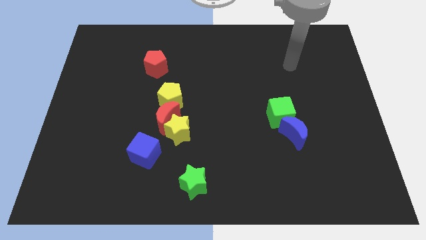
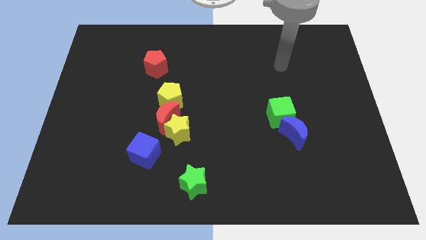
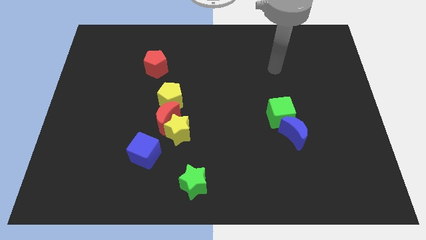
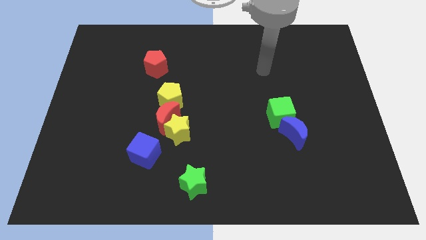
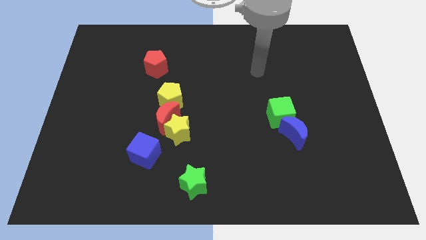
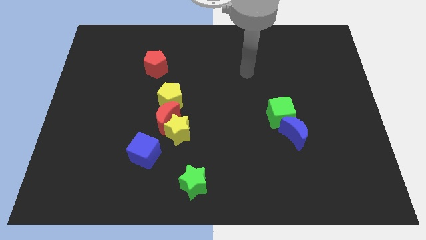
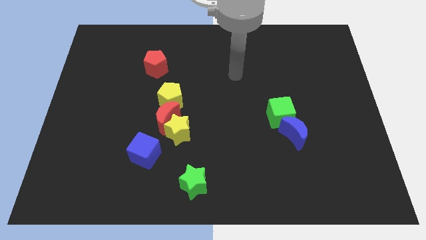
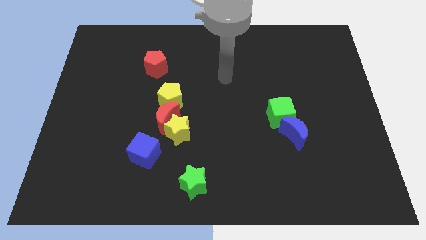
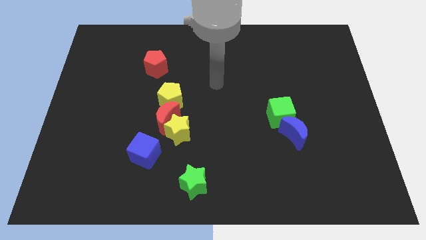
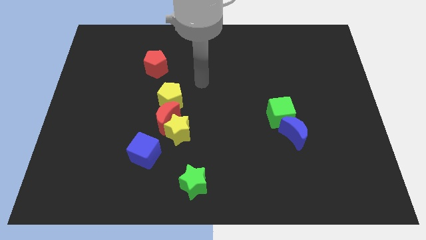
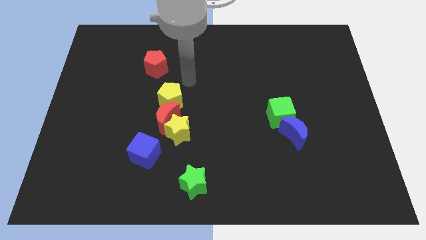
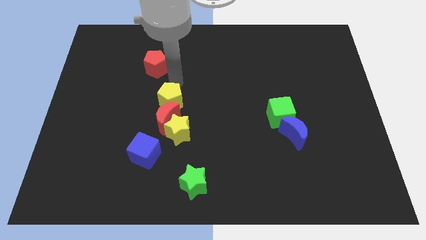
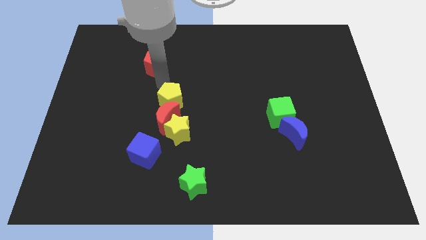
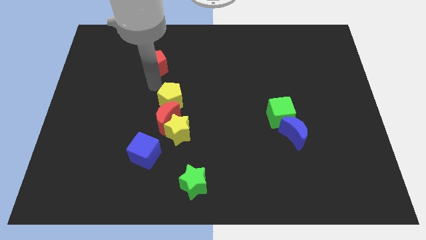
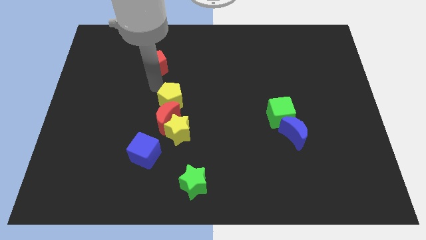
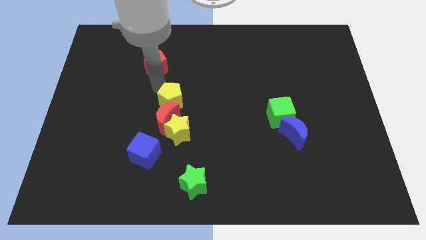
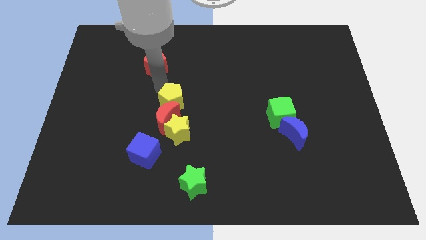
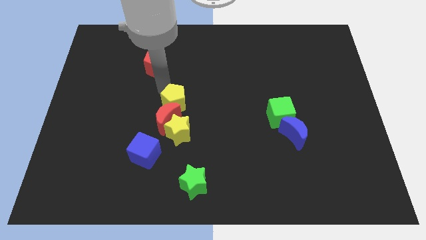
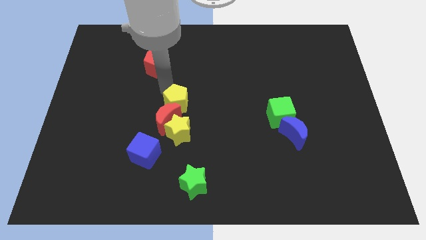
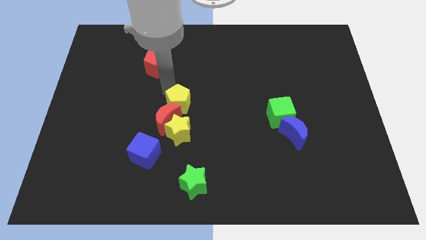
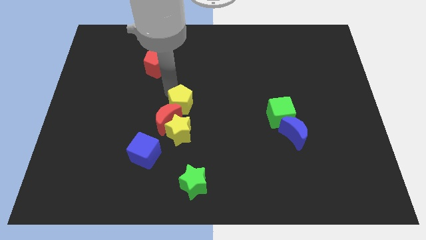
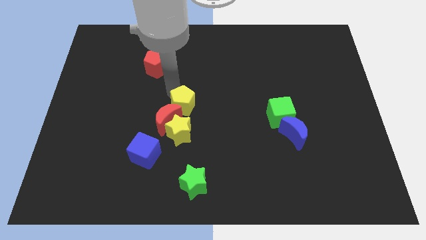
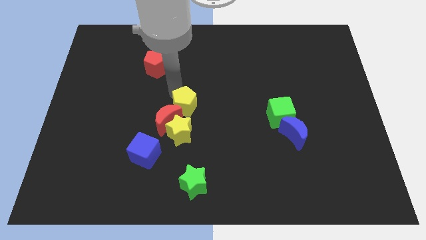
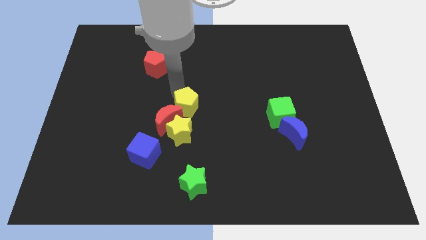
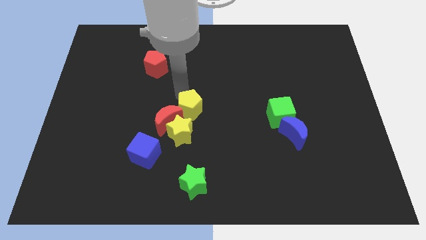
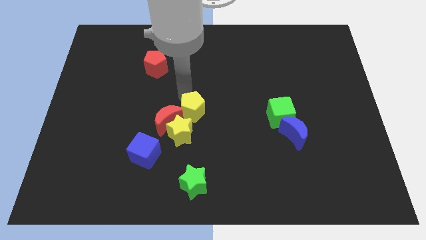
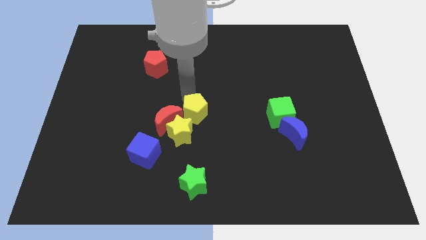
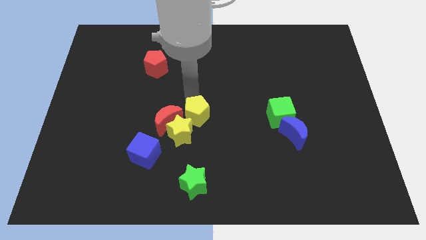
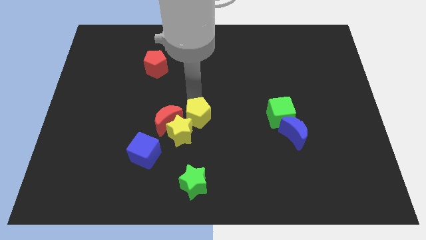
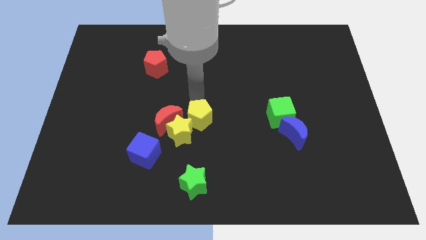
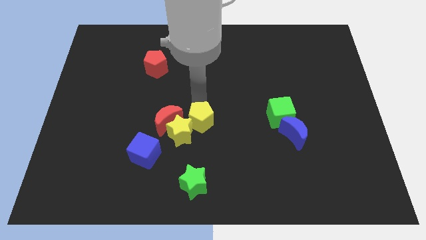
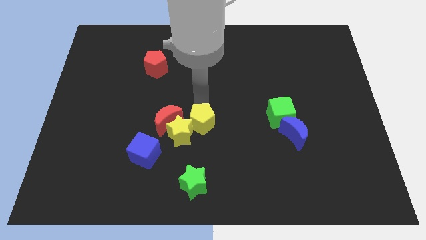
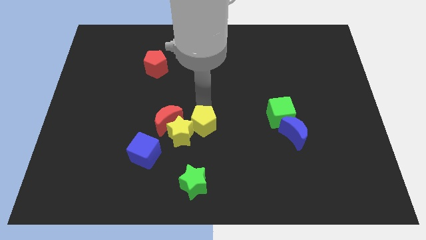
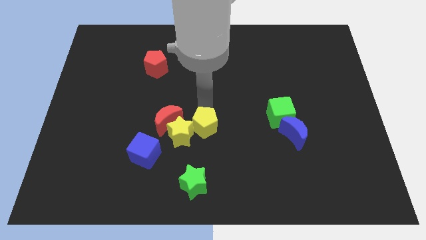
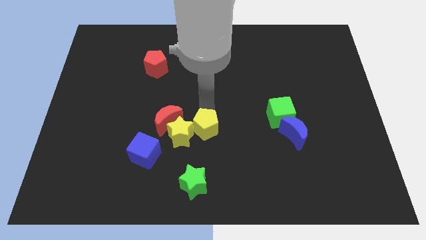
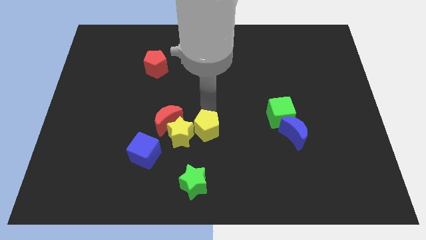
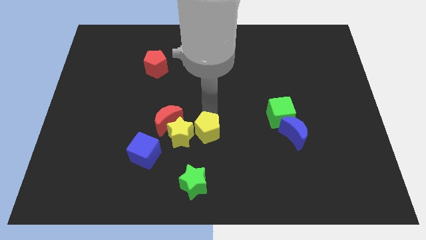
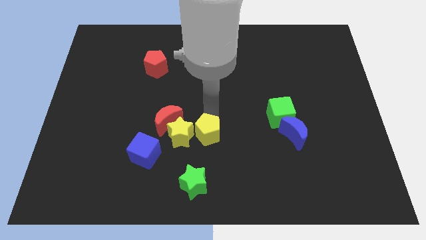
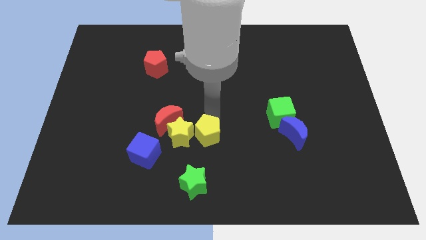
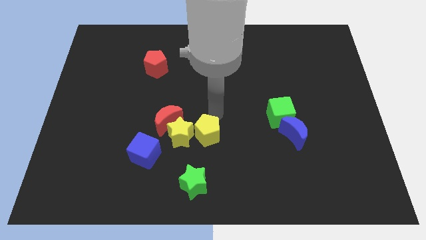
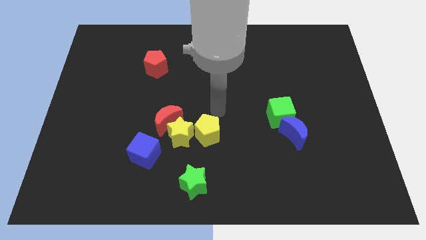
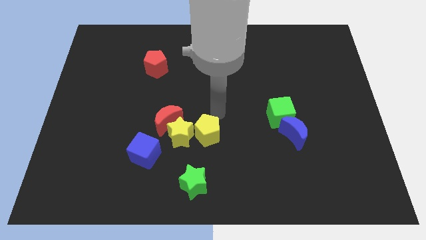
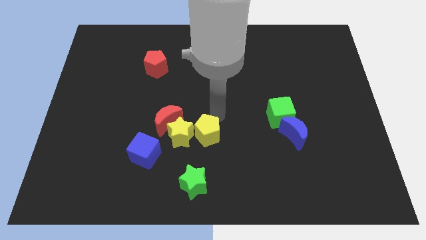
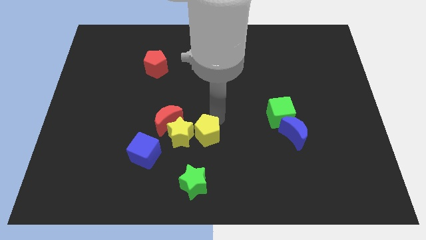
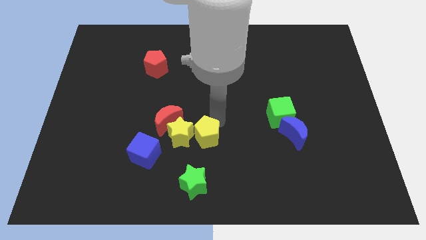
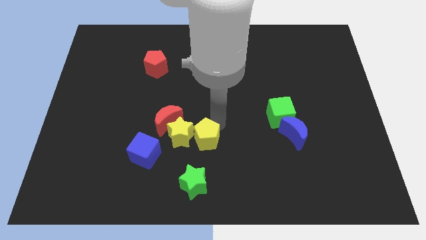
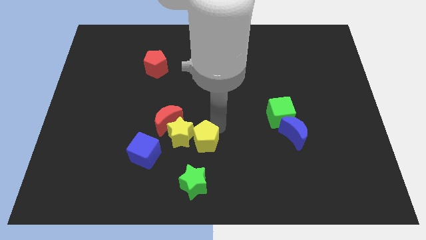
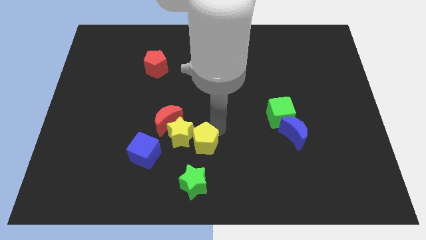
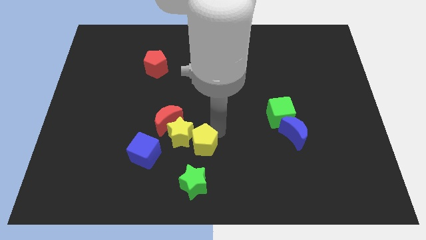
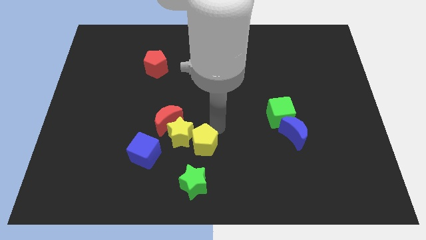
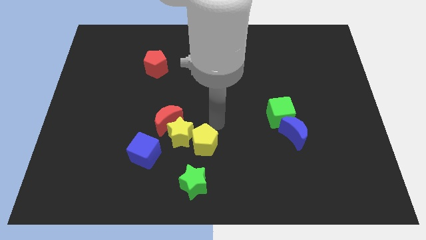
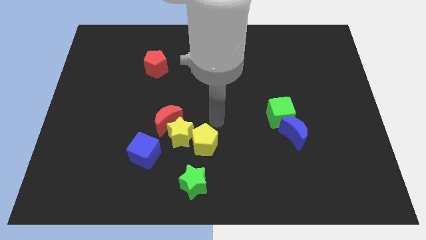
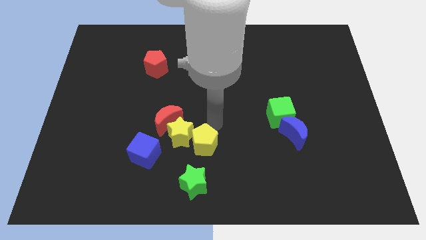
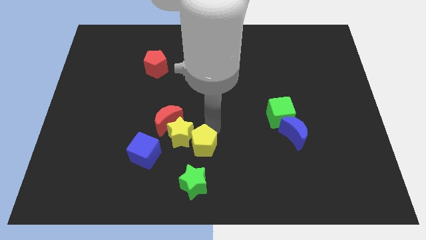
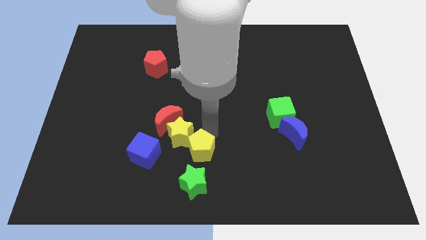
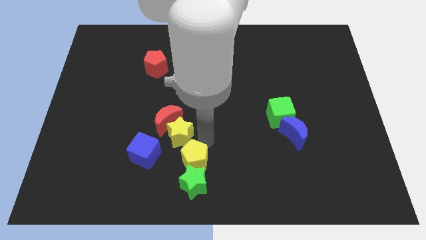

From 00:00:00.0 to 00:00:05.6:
push the yellow pentagon close to the green star

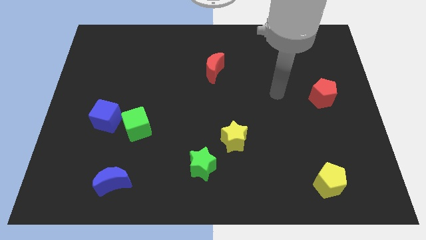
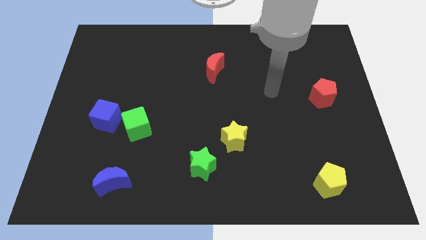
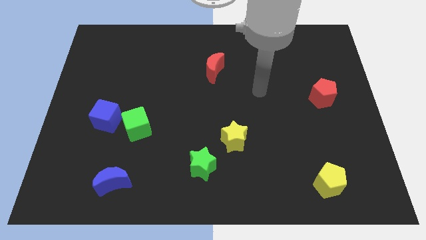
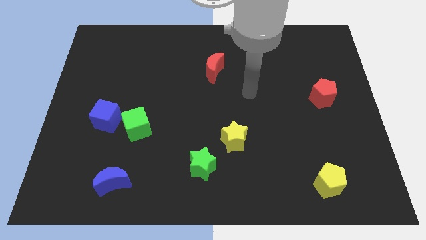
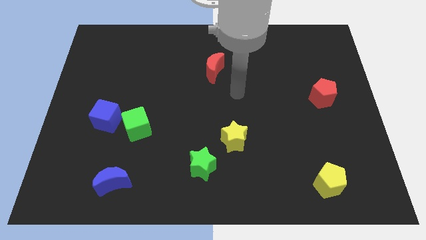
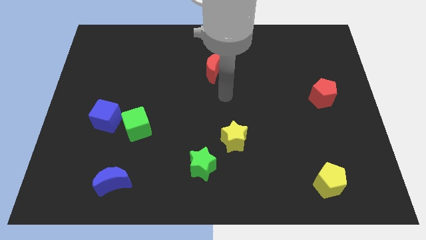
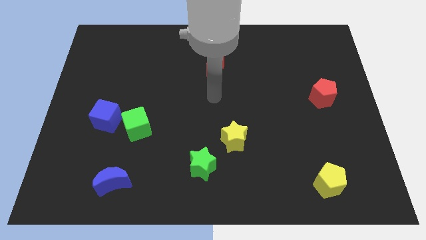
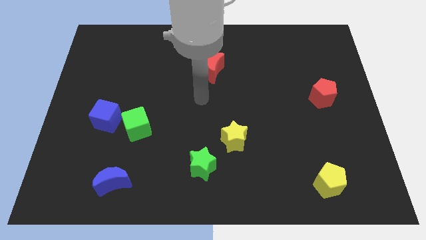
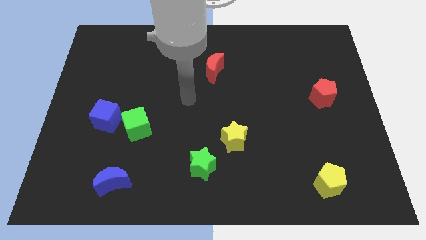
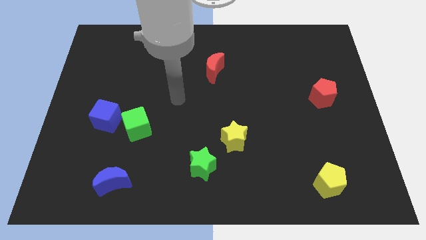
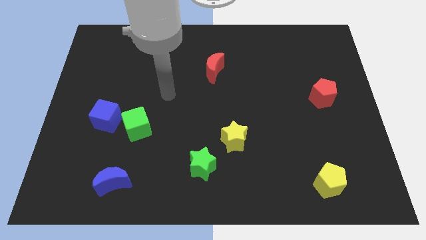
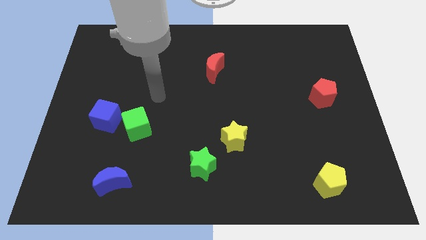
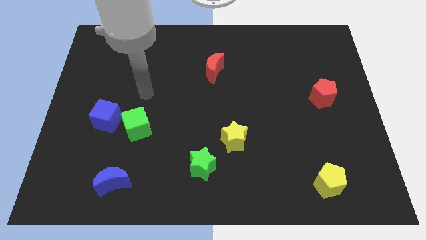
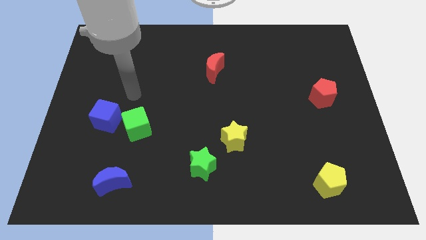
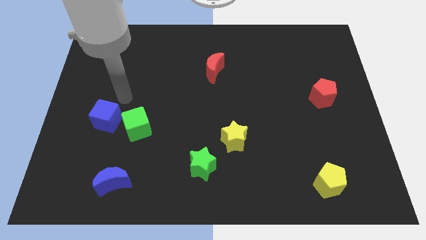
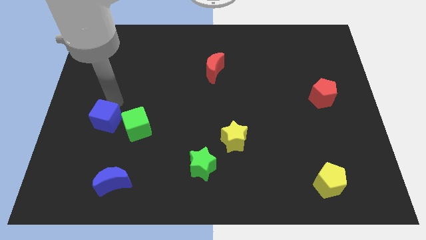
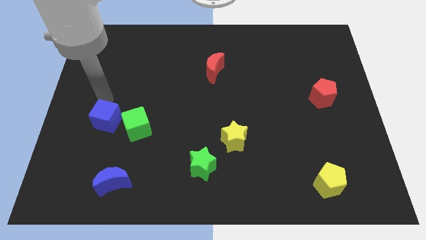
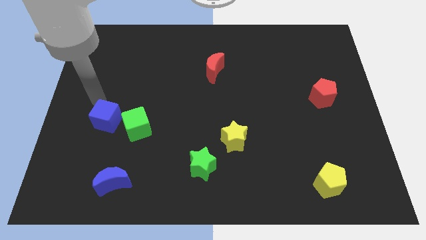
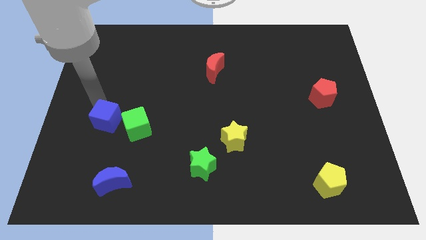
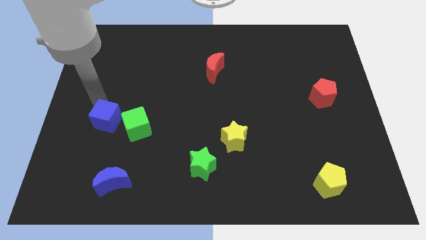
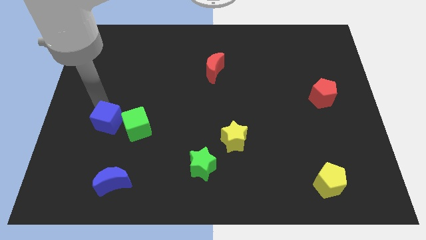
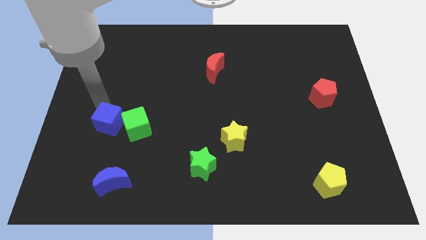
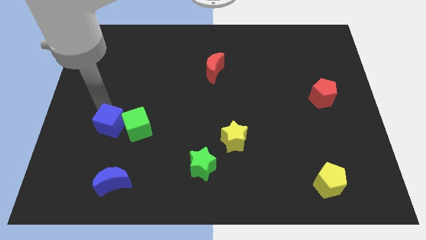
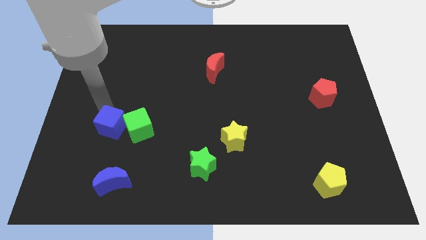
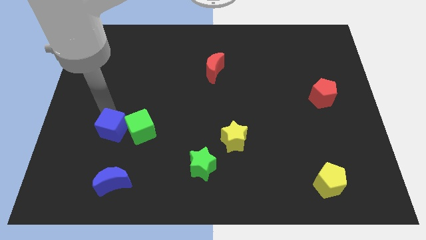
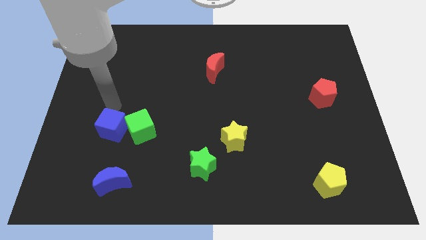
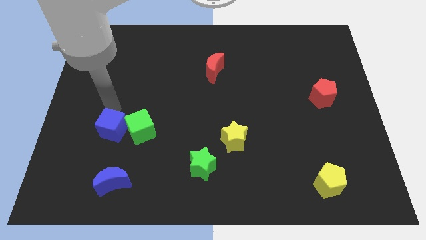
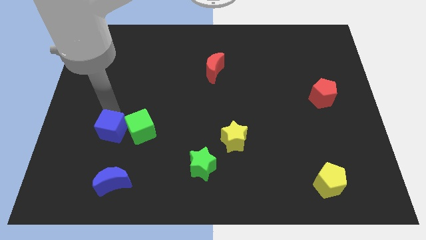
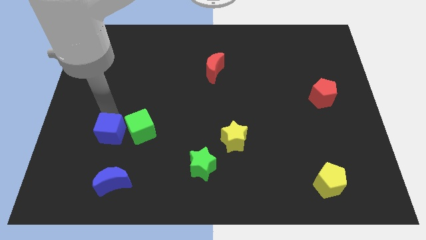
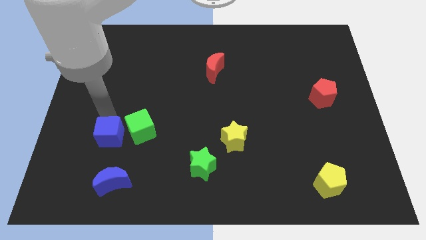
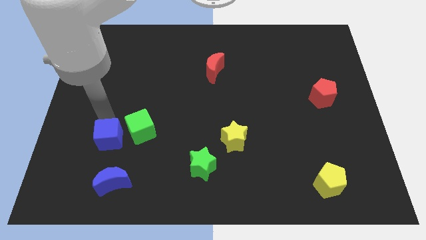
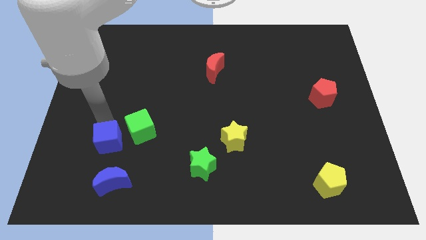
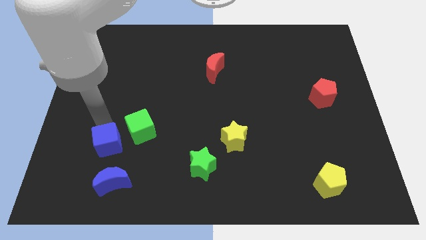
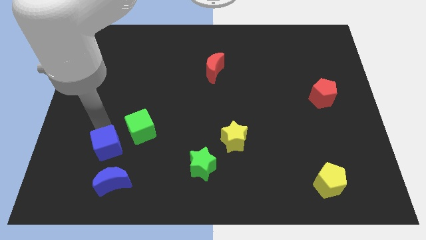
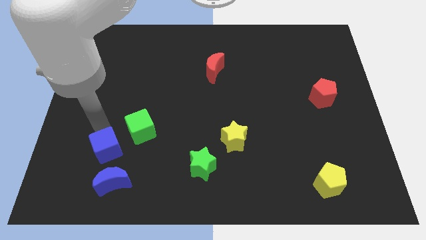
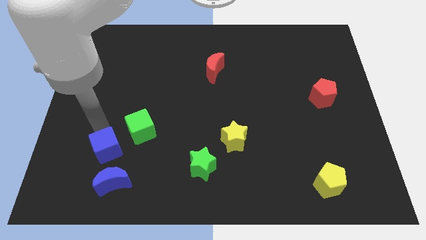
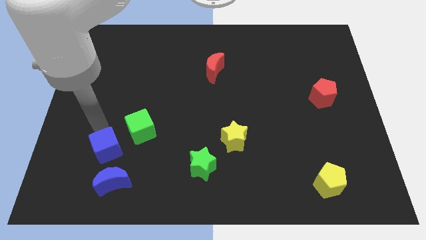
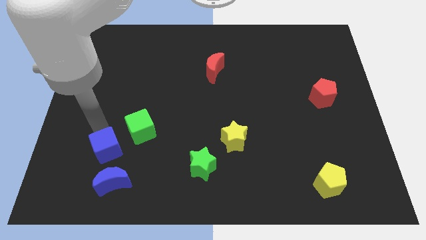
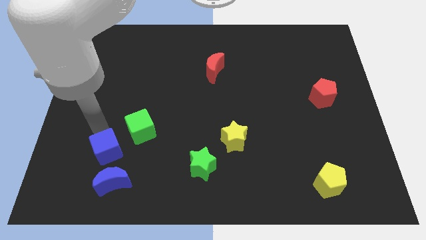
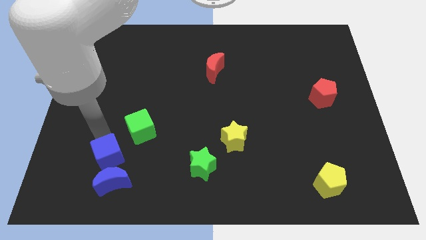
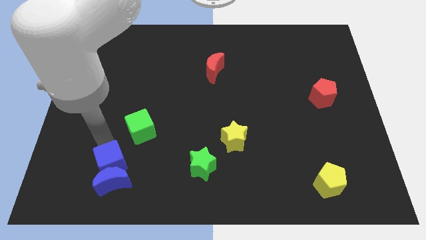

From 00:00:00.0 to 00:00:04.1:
move the blue cube next to the blue moon
